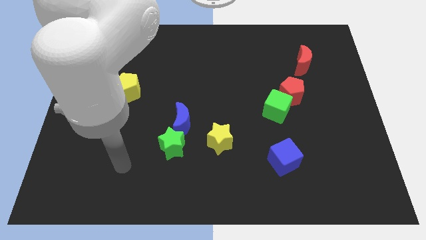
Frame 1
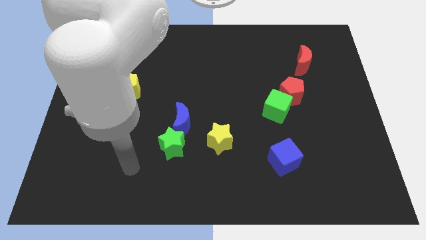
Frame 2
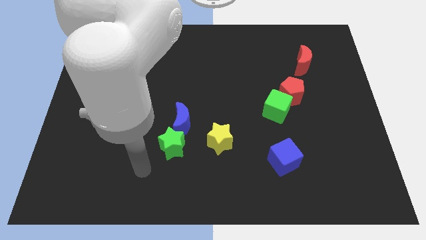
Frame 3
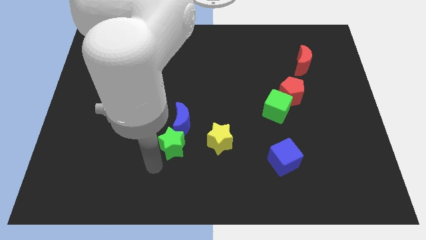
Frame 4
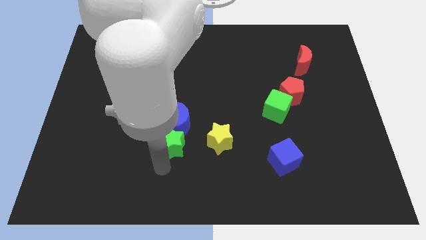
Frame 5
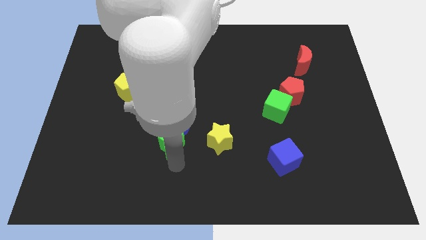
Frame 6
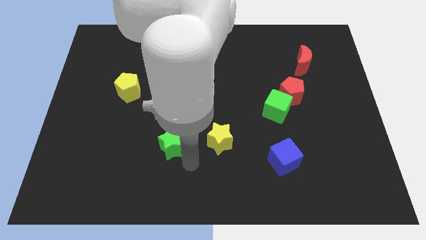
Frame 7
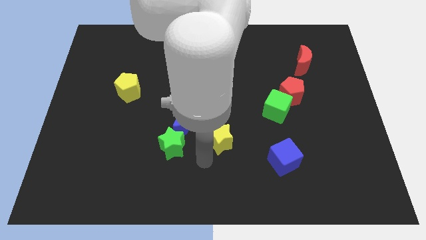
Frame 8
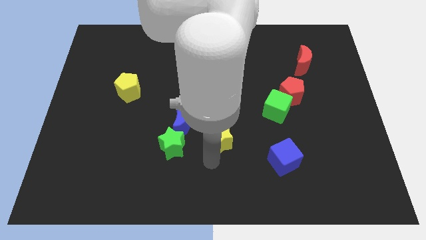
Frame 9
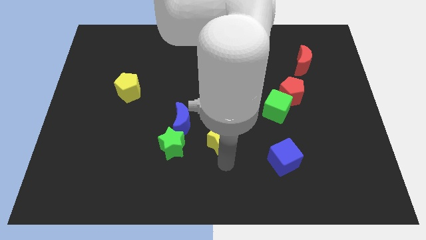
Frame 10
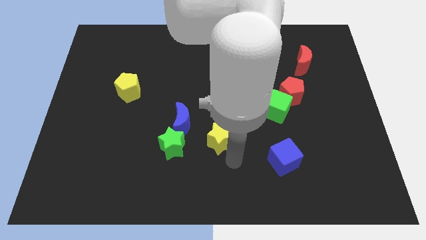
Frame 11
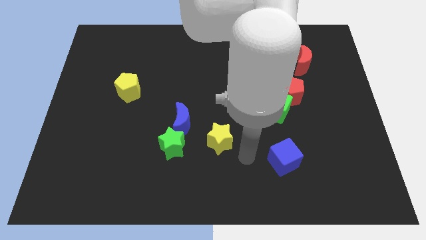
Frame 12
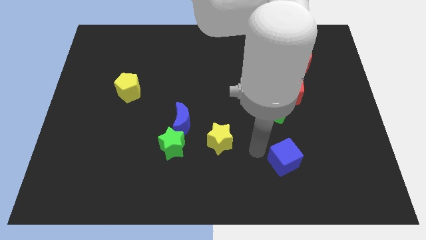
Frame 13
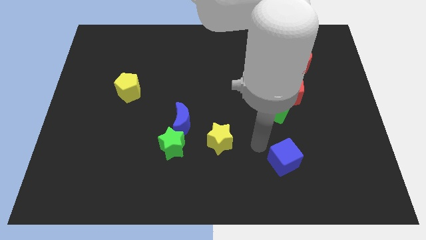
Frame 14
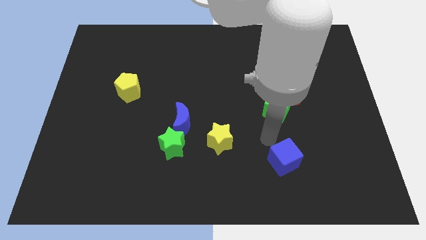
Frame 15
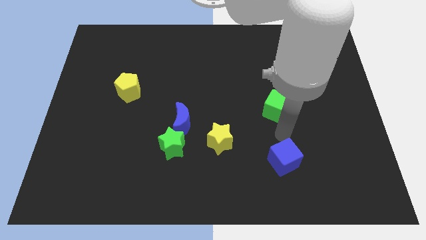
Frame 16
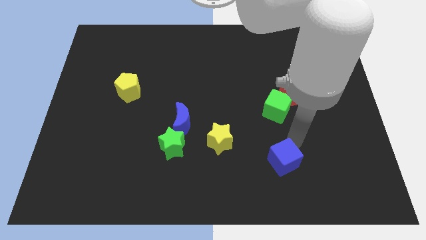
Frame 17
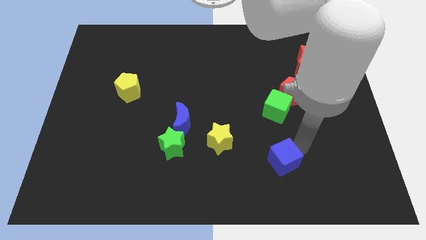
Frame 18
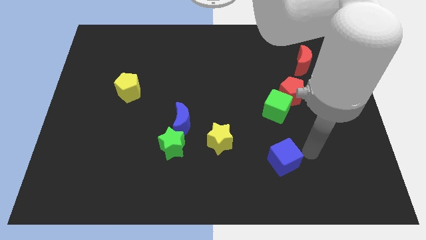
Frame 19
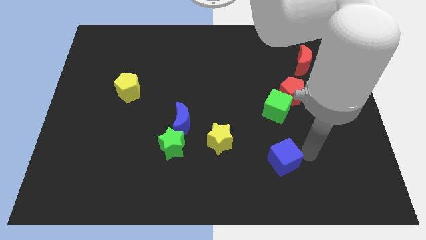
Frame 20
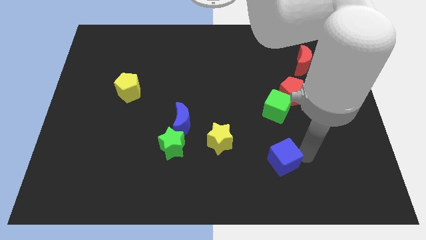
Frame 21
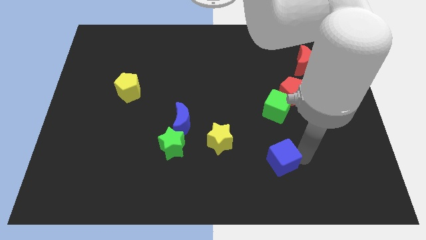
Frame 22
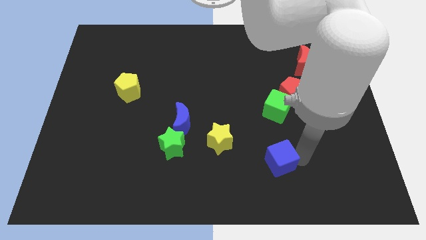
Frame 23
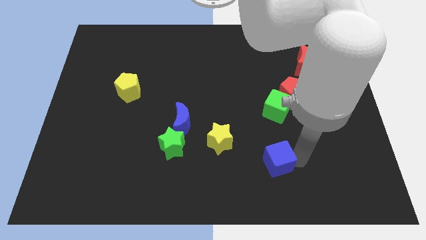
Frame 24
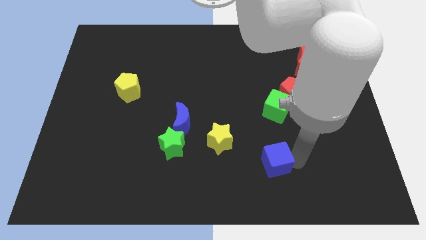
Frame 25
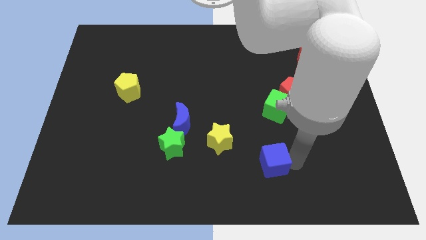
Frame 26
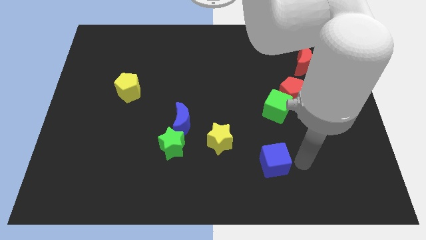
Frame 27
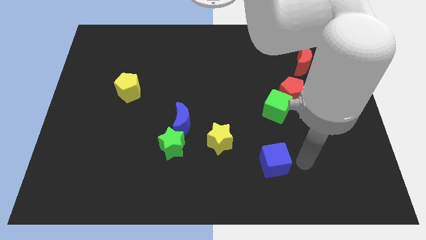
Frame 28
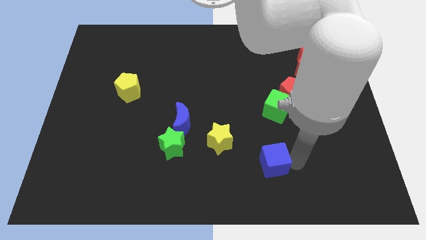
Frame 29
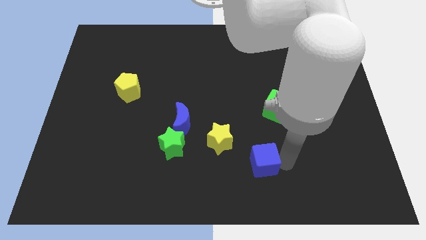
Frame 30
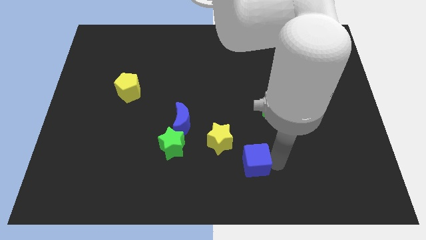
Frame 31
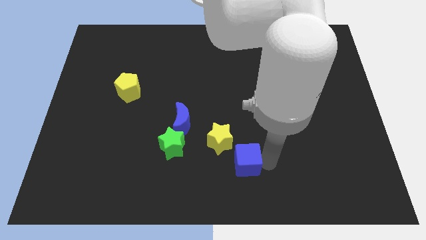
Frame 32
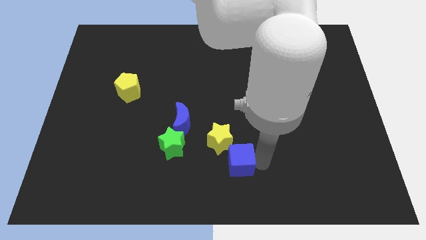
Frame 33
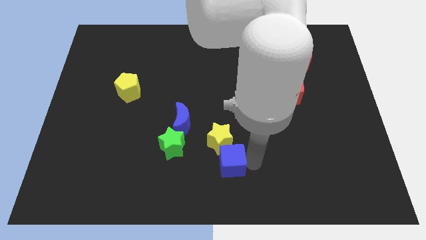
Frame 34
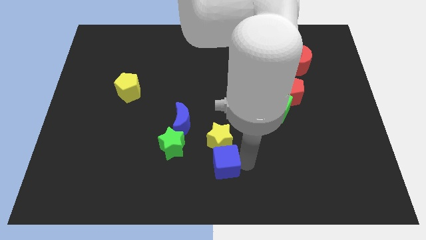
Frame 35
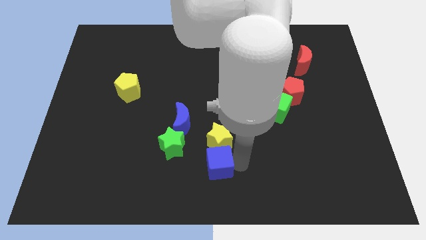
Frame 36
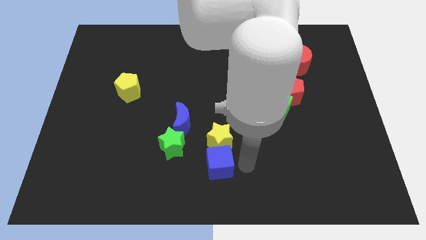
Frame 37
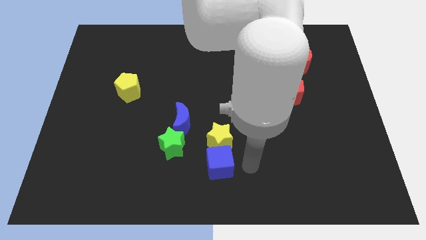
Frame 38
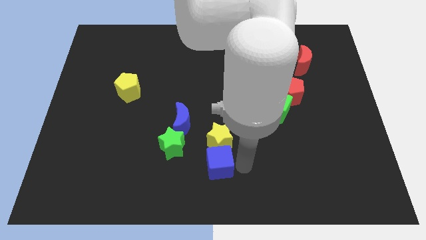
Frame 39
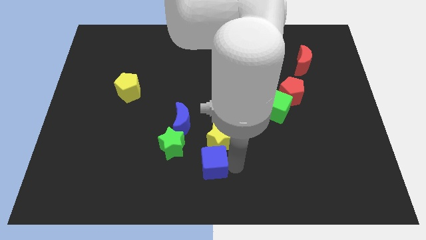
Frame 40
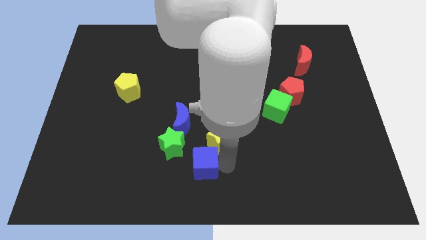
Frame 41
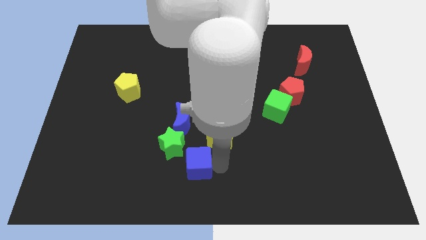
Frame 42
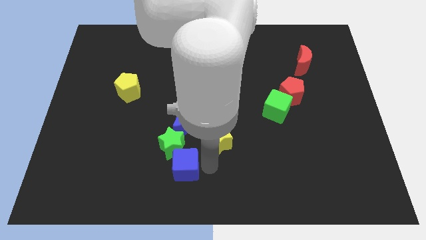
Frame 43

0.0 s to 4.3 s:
push the blue cube left

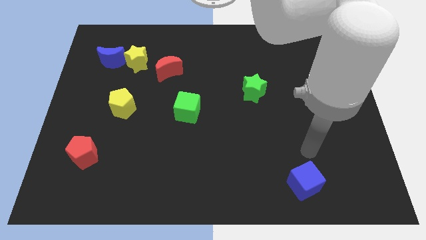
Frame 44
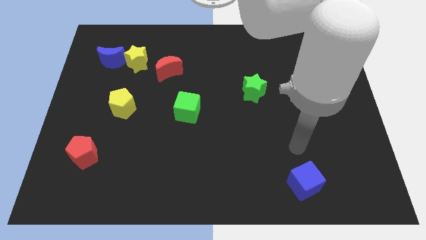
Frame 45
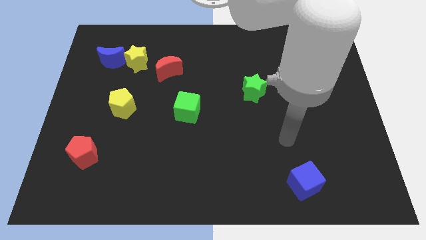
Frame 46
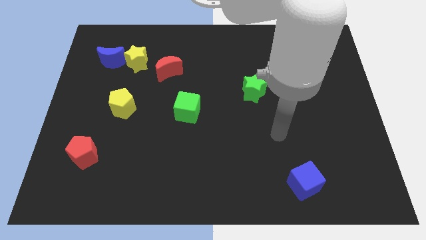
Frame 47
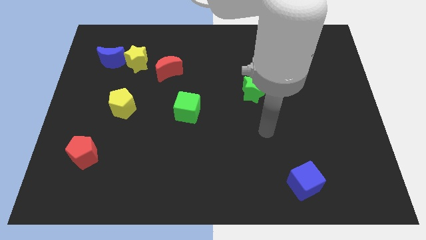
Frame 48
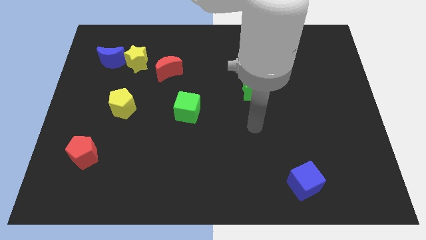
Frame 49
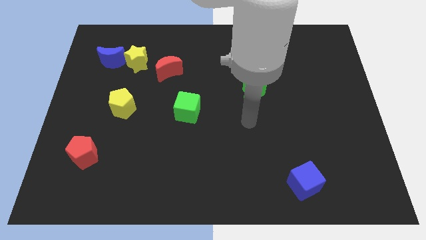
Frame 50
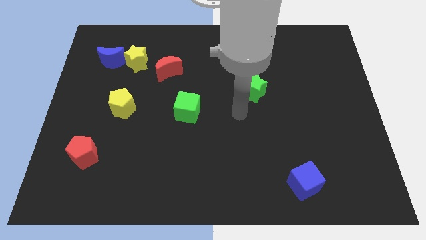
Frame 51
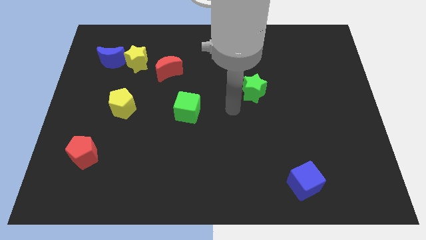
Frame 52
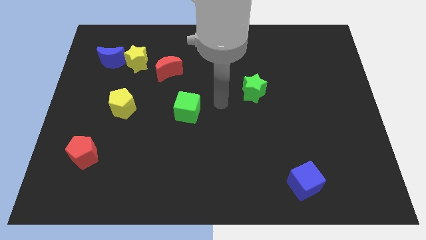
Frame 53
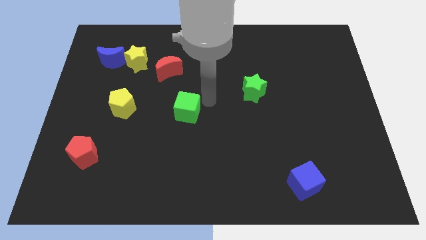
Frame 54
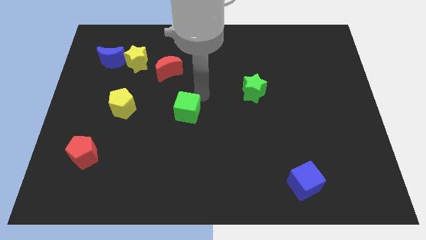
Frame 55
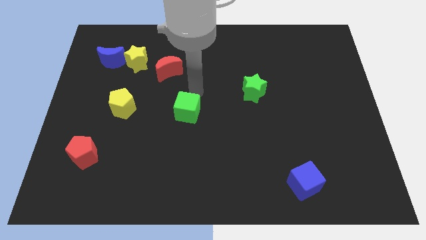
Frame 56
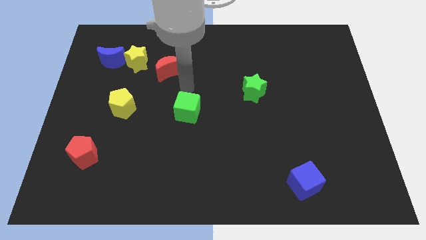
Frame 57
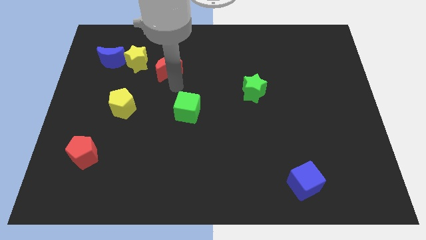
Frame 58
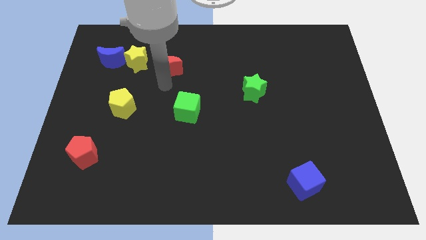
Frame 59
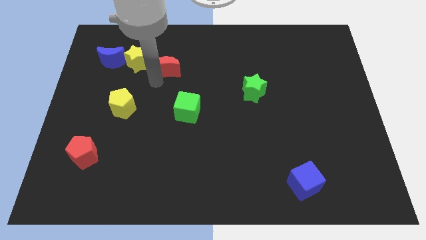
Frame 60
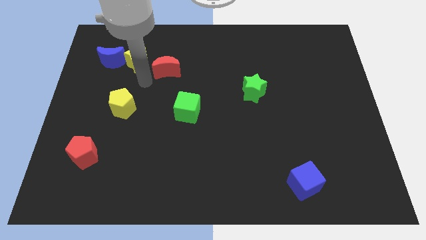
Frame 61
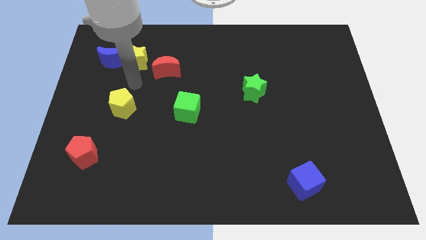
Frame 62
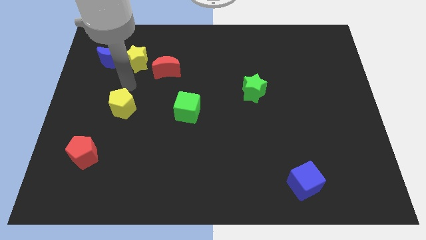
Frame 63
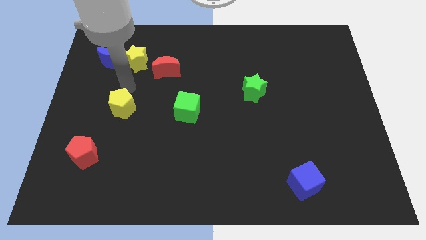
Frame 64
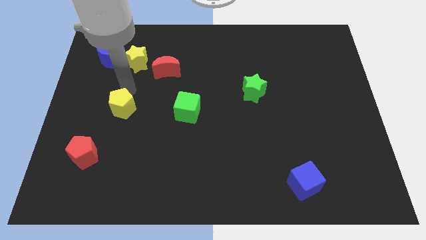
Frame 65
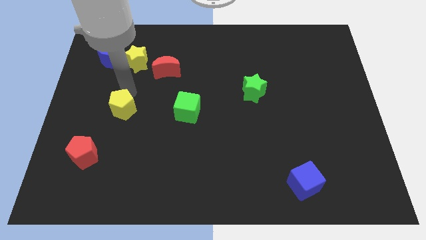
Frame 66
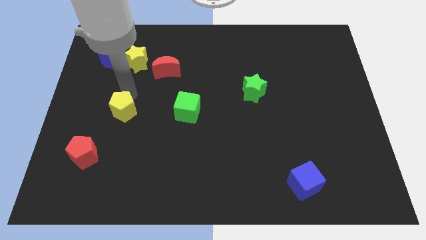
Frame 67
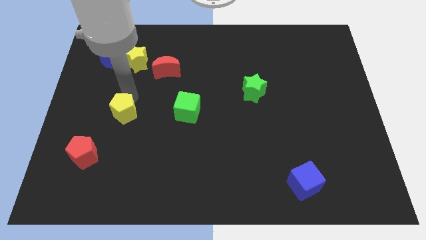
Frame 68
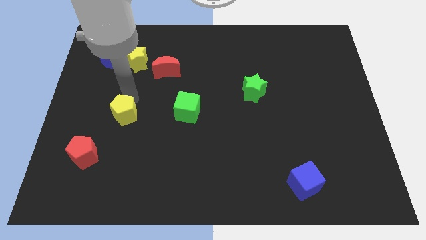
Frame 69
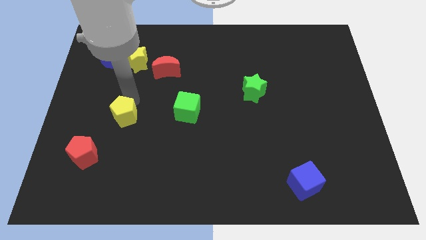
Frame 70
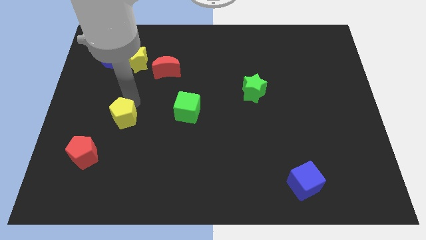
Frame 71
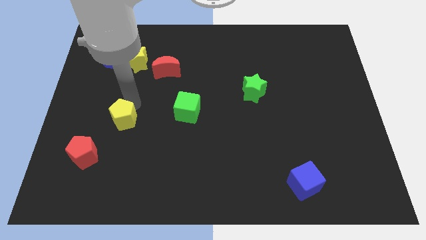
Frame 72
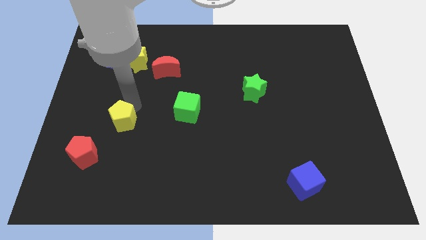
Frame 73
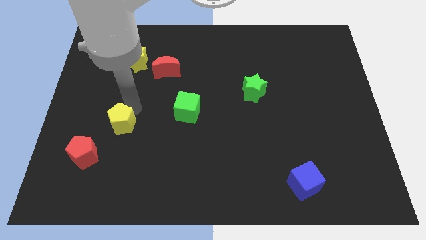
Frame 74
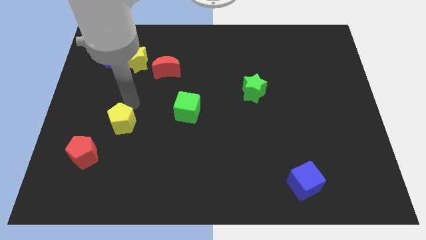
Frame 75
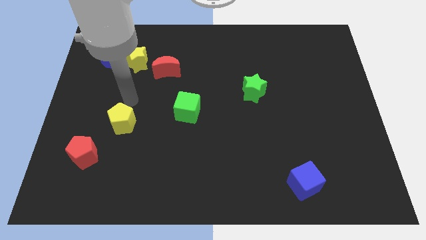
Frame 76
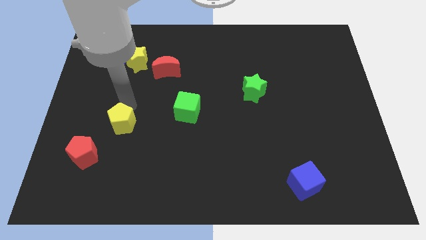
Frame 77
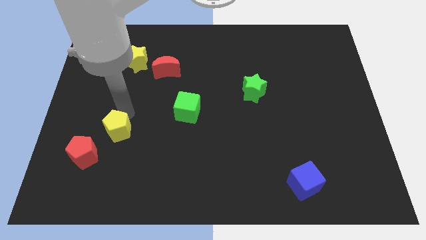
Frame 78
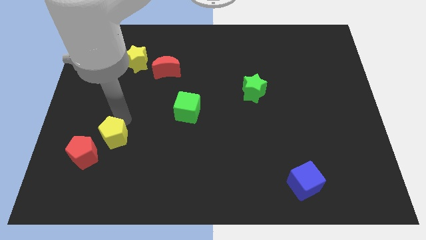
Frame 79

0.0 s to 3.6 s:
slide the yellow pentagon a little down
